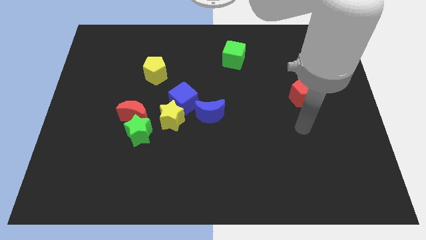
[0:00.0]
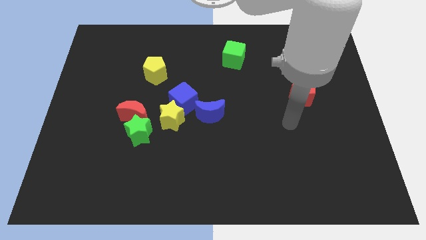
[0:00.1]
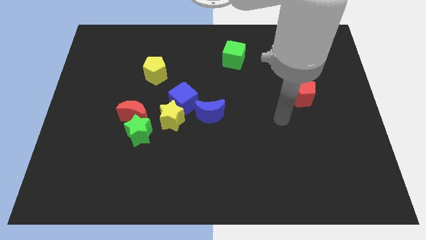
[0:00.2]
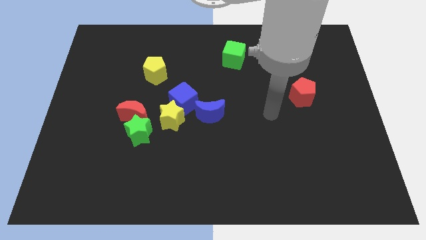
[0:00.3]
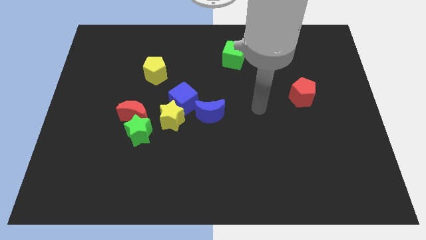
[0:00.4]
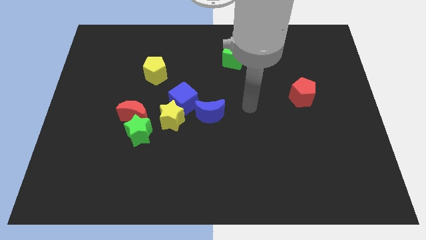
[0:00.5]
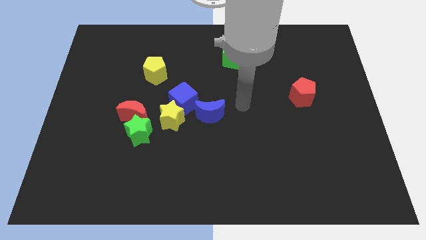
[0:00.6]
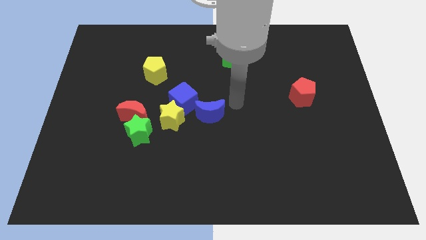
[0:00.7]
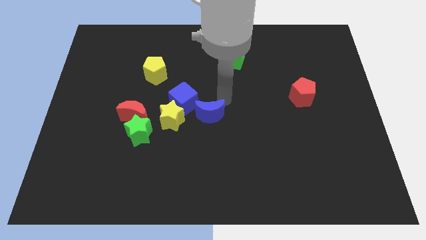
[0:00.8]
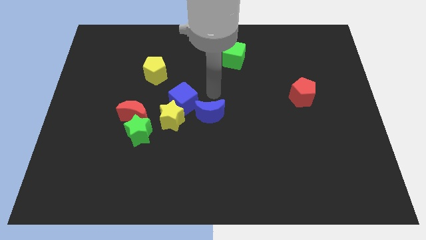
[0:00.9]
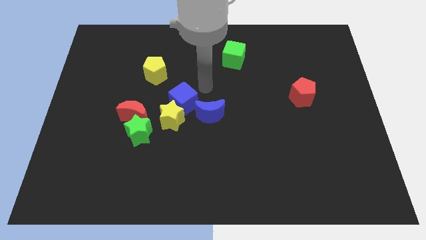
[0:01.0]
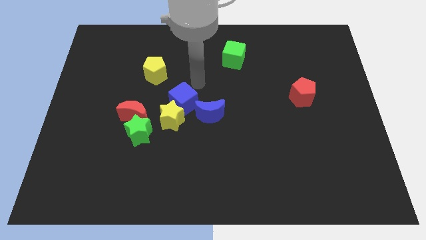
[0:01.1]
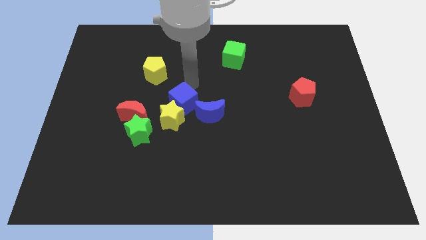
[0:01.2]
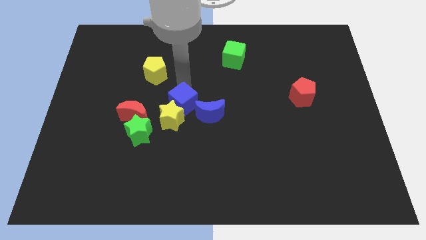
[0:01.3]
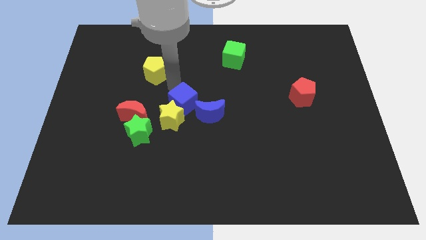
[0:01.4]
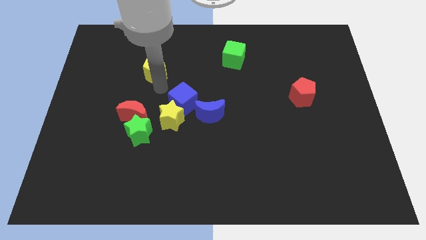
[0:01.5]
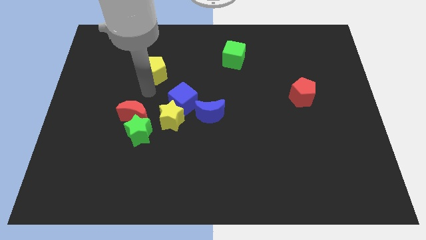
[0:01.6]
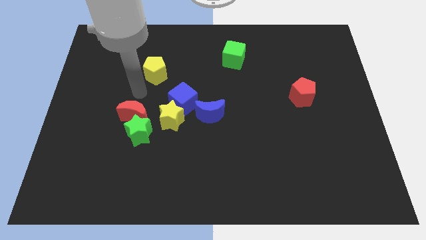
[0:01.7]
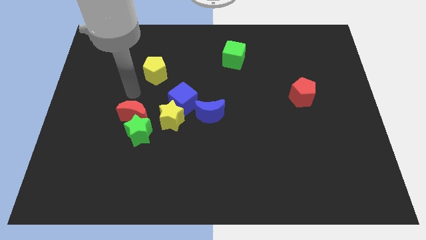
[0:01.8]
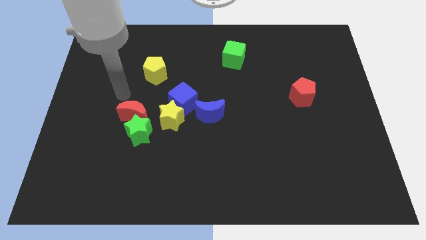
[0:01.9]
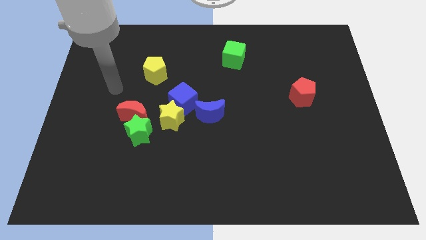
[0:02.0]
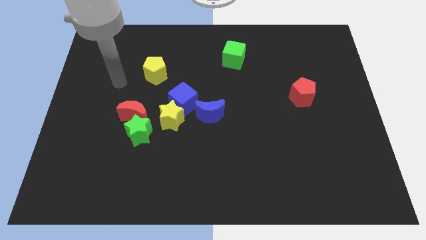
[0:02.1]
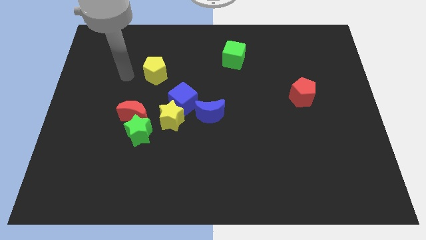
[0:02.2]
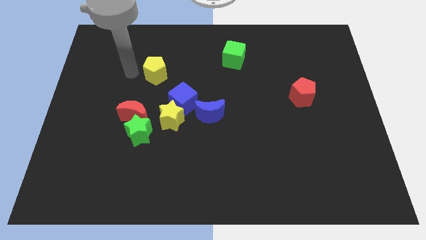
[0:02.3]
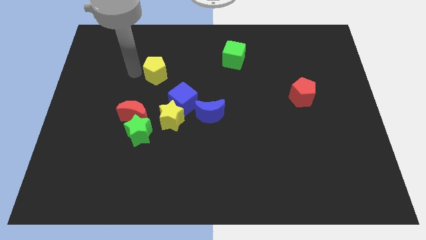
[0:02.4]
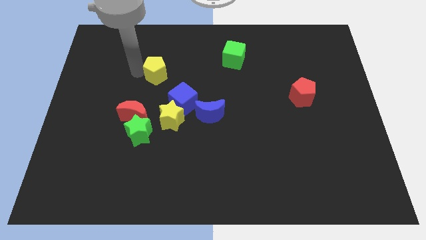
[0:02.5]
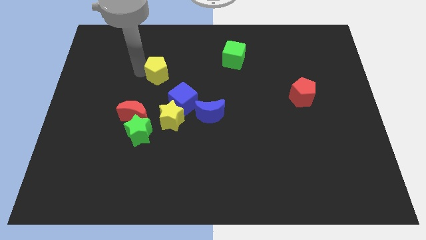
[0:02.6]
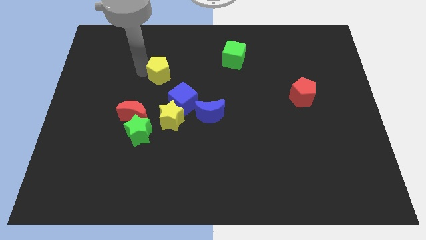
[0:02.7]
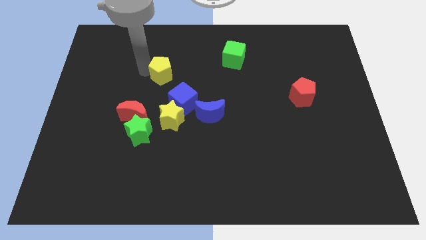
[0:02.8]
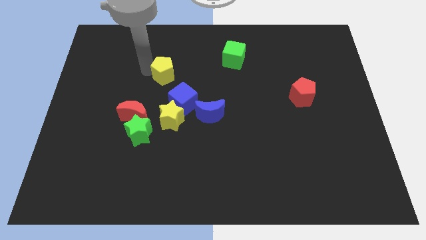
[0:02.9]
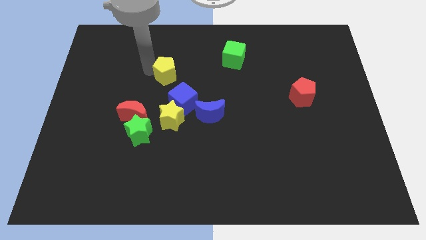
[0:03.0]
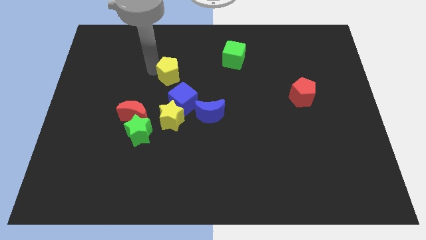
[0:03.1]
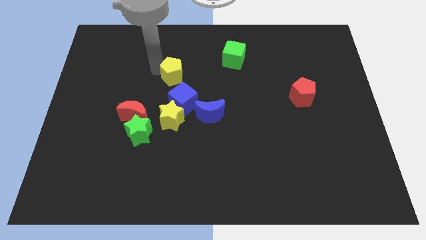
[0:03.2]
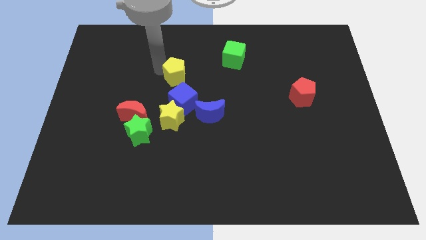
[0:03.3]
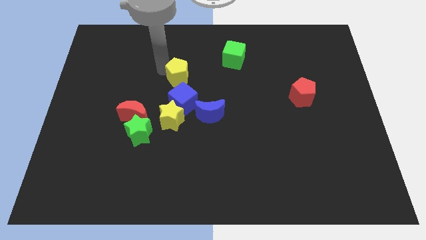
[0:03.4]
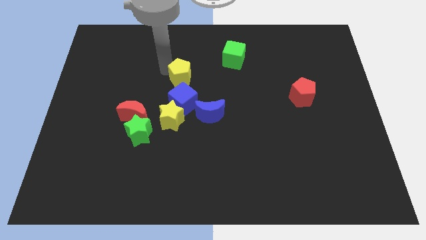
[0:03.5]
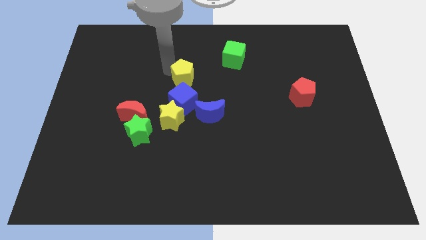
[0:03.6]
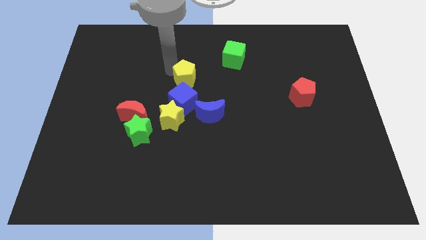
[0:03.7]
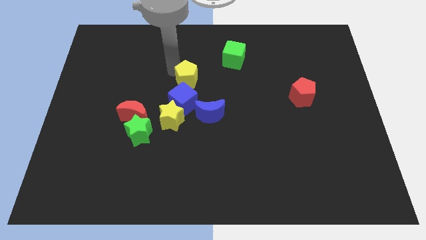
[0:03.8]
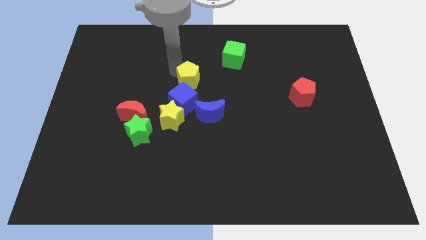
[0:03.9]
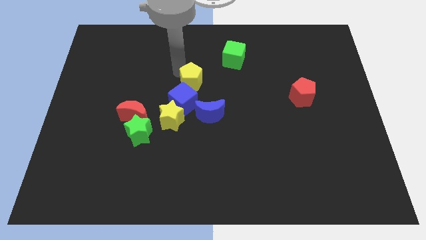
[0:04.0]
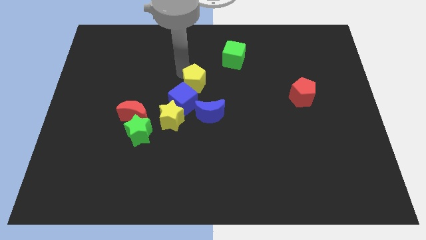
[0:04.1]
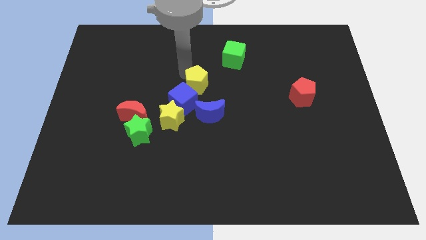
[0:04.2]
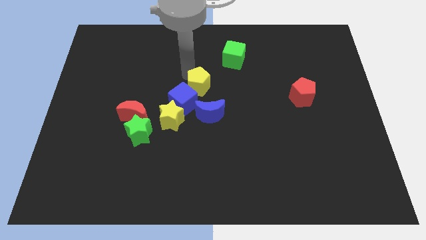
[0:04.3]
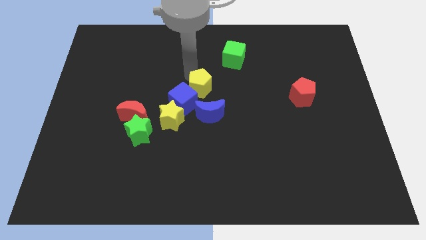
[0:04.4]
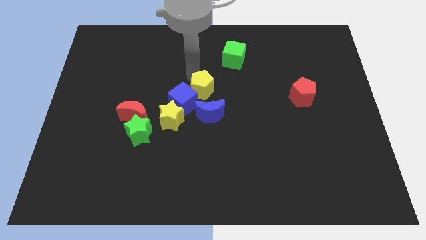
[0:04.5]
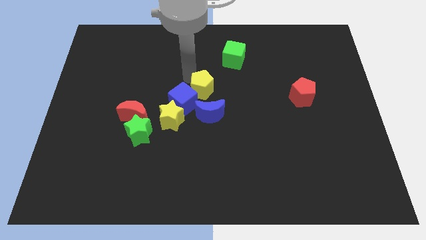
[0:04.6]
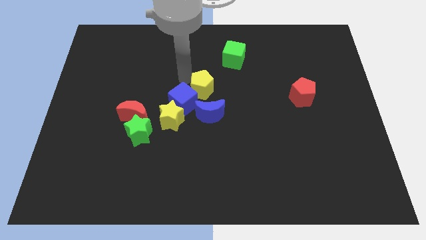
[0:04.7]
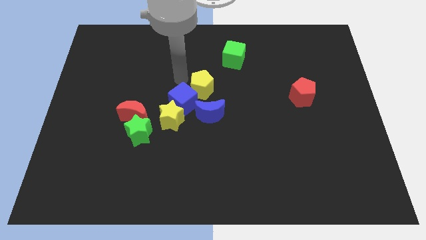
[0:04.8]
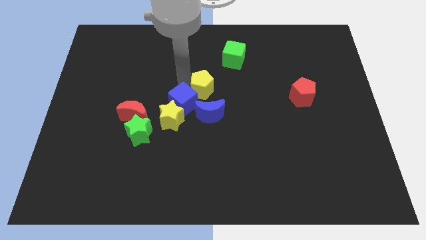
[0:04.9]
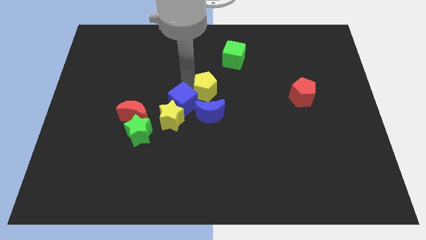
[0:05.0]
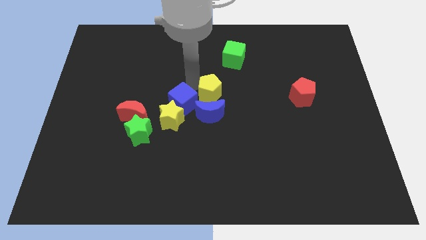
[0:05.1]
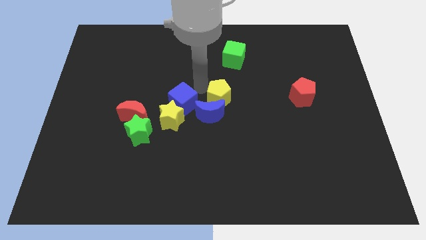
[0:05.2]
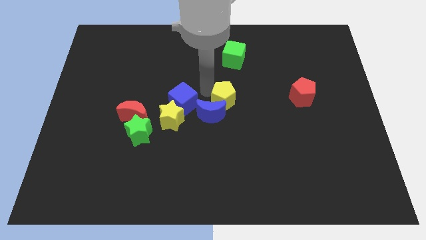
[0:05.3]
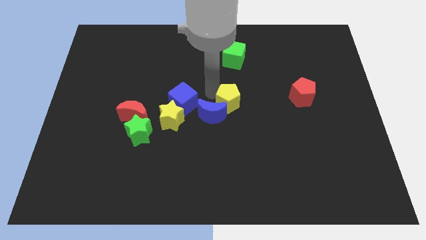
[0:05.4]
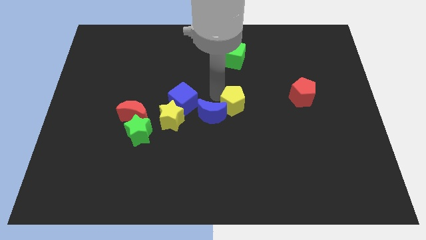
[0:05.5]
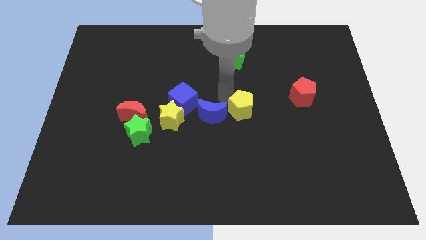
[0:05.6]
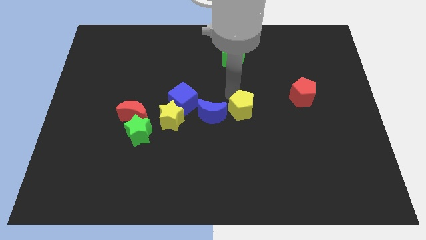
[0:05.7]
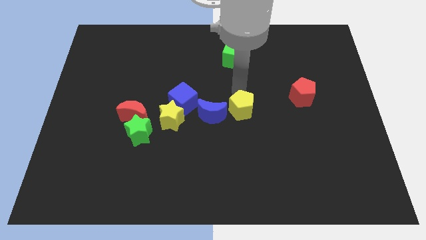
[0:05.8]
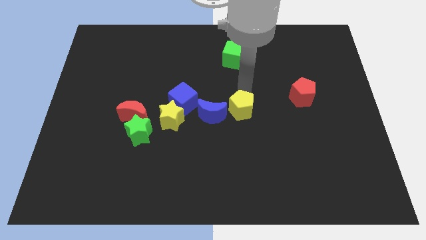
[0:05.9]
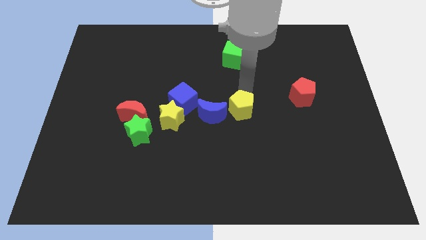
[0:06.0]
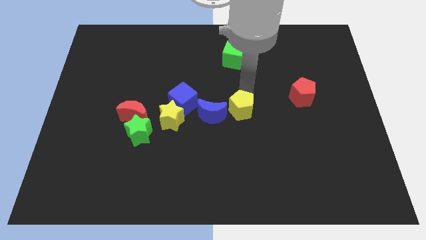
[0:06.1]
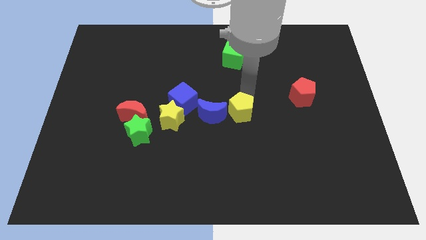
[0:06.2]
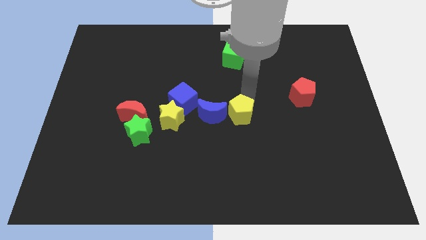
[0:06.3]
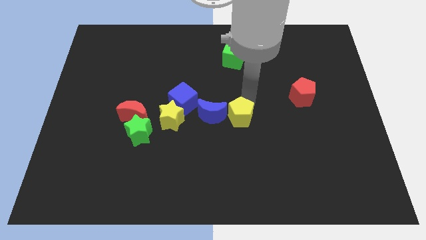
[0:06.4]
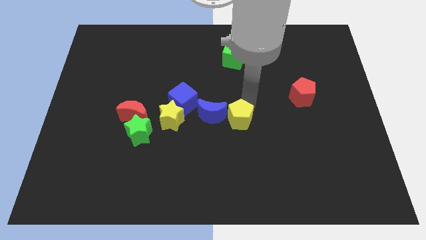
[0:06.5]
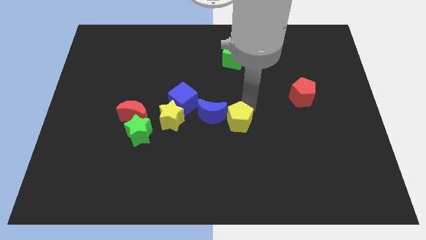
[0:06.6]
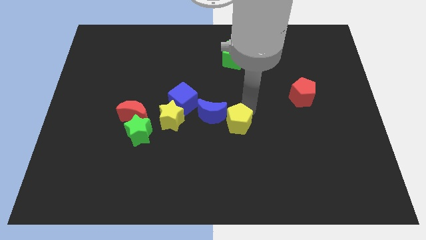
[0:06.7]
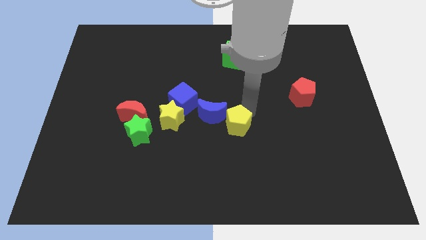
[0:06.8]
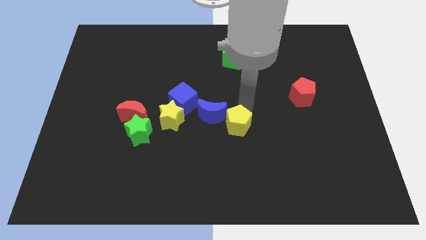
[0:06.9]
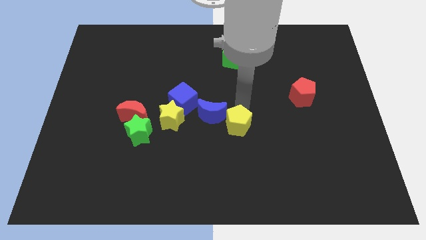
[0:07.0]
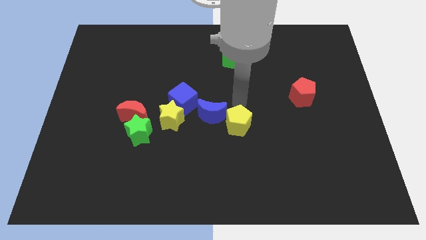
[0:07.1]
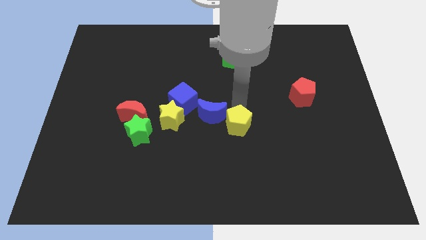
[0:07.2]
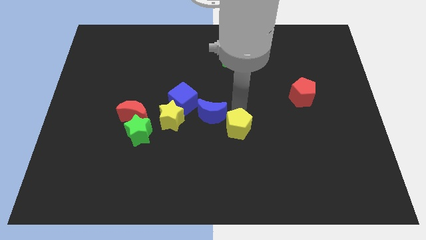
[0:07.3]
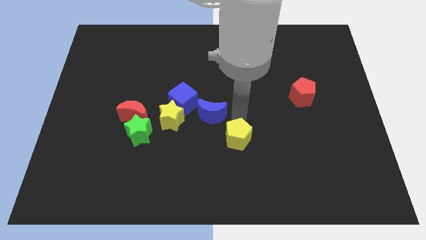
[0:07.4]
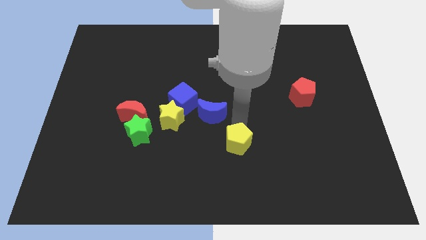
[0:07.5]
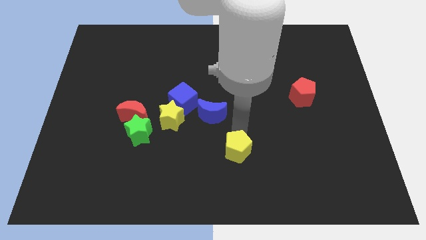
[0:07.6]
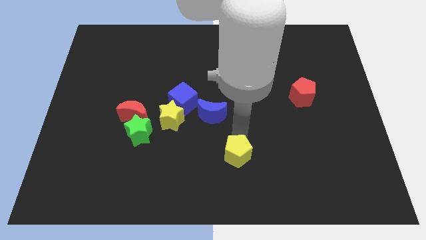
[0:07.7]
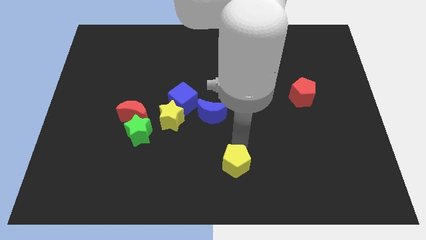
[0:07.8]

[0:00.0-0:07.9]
put the yellow pentagon to the bottom
